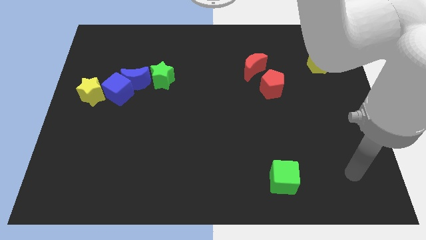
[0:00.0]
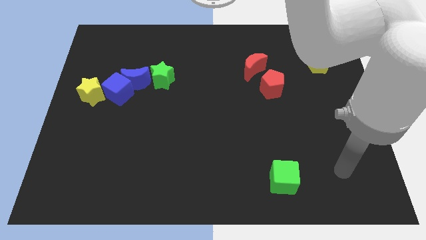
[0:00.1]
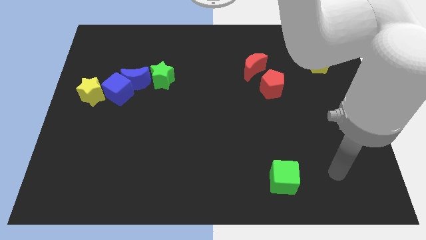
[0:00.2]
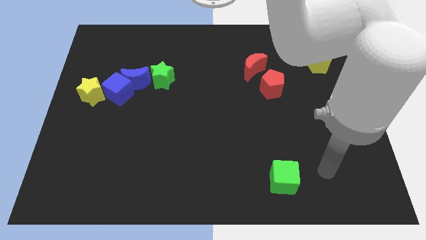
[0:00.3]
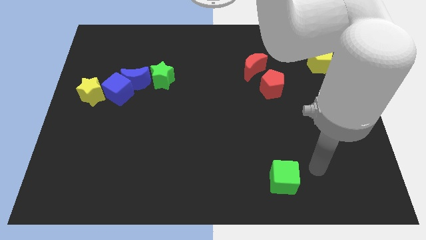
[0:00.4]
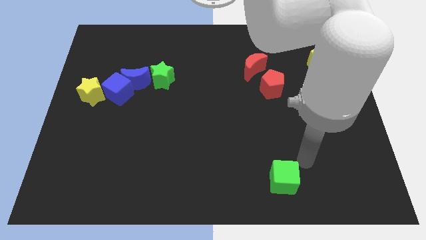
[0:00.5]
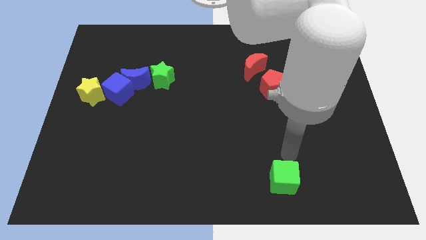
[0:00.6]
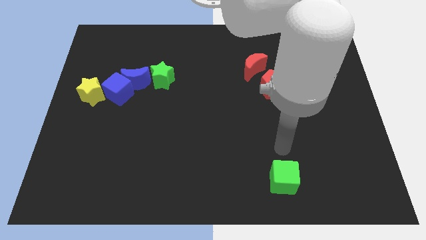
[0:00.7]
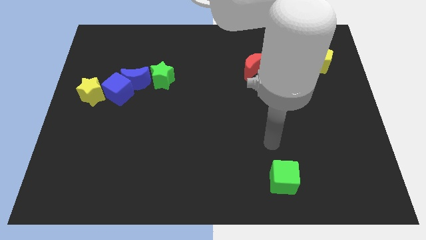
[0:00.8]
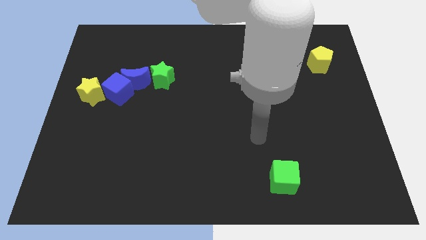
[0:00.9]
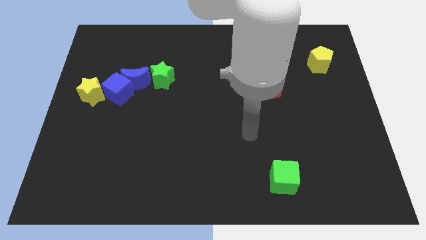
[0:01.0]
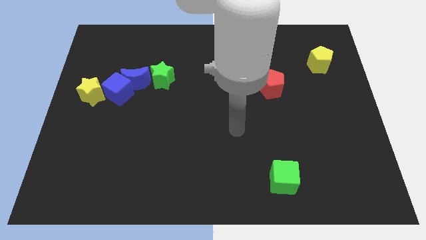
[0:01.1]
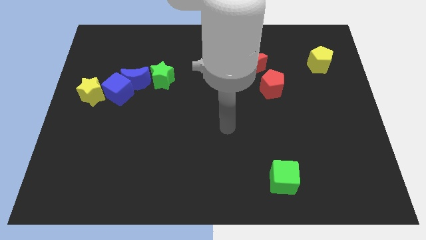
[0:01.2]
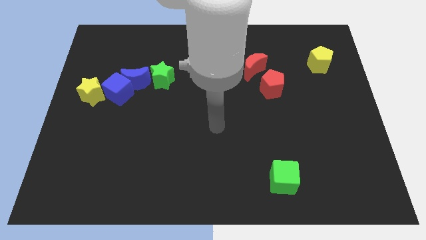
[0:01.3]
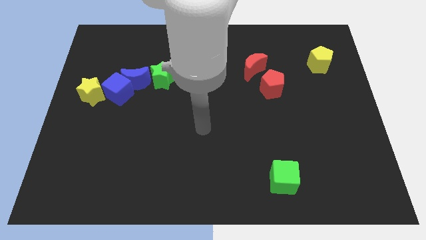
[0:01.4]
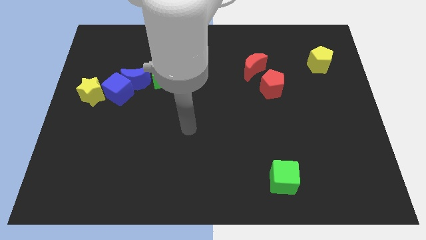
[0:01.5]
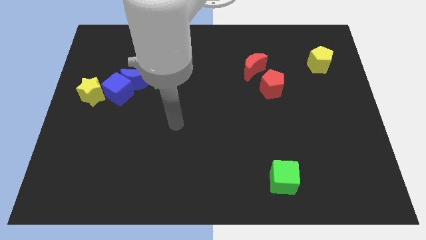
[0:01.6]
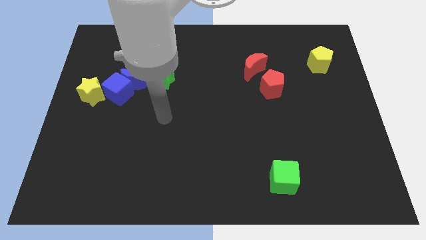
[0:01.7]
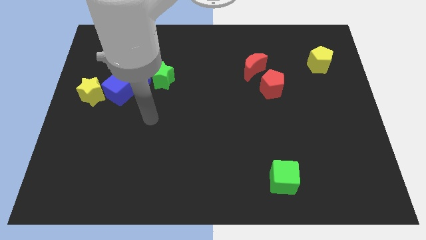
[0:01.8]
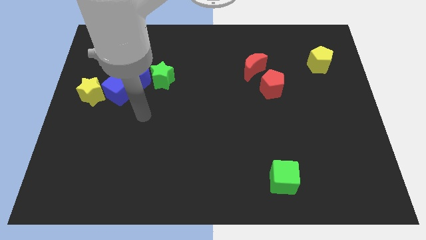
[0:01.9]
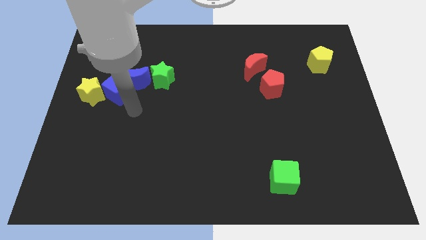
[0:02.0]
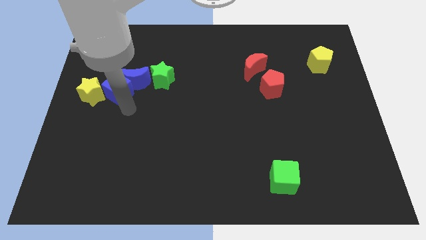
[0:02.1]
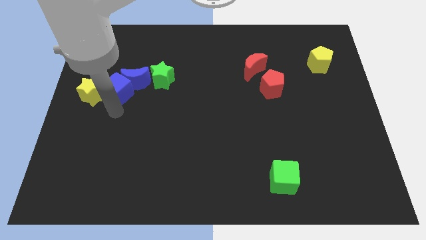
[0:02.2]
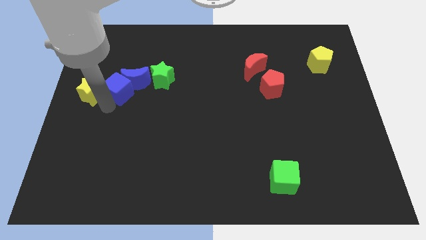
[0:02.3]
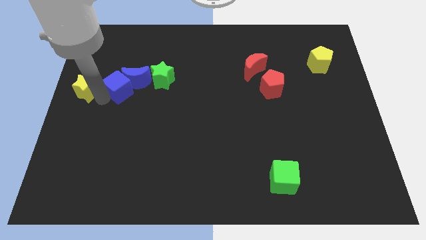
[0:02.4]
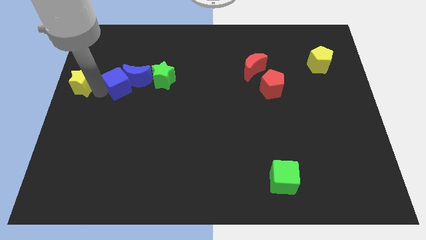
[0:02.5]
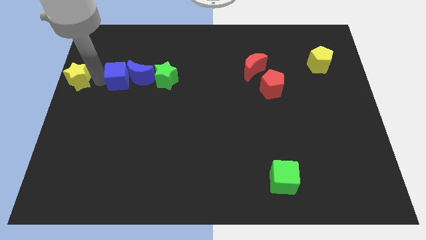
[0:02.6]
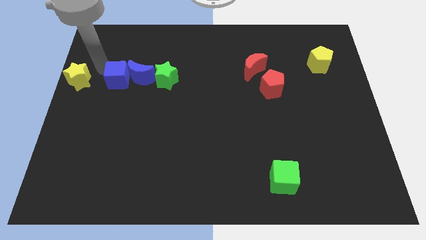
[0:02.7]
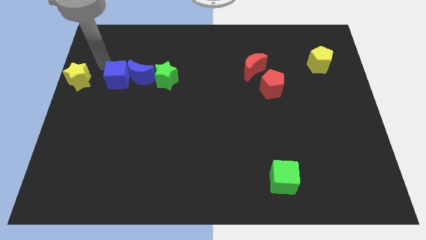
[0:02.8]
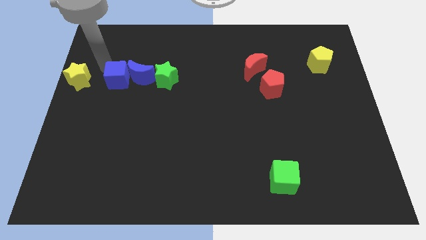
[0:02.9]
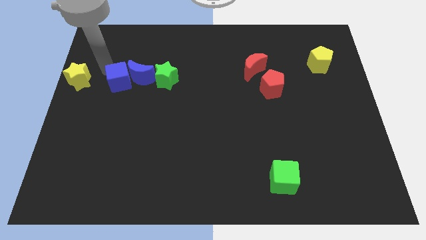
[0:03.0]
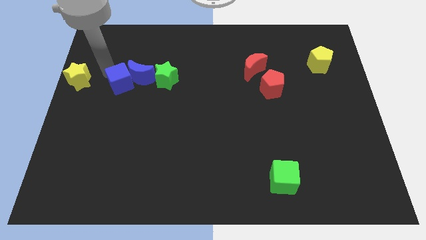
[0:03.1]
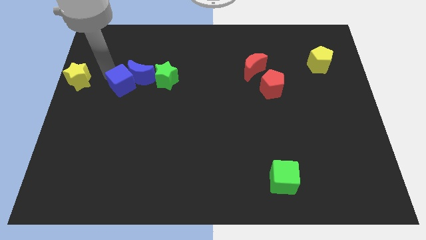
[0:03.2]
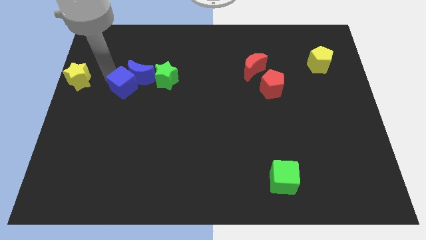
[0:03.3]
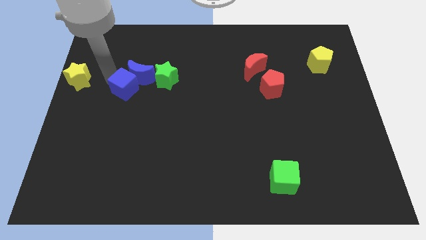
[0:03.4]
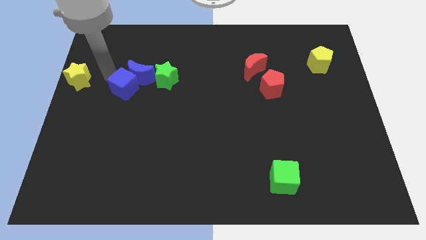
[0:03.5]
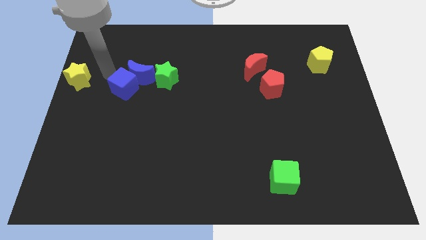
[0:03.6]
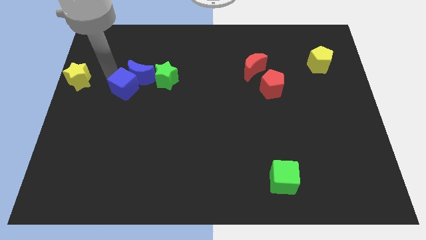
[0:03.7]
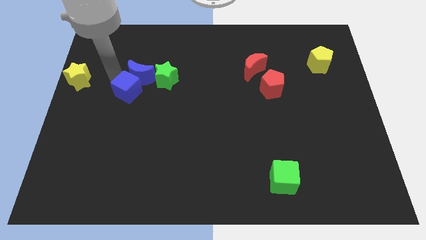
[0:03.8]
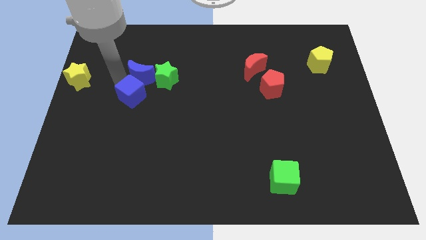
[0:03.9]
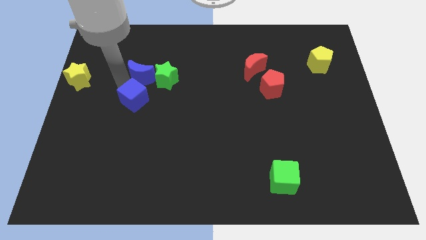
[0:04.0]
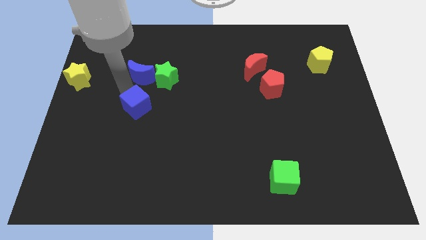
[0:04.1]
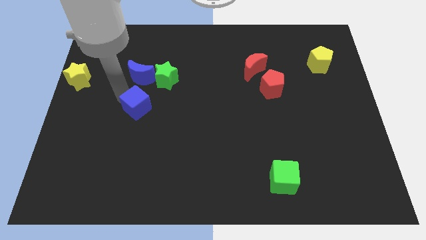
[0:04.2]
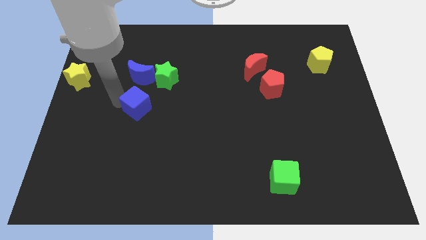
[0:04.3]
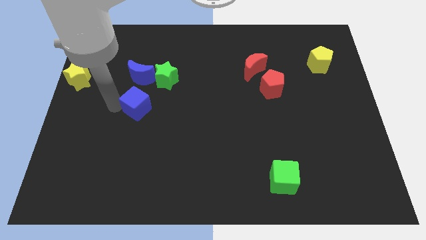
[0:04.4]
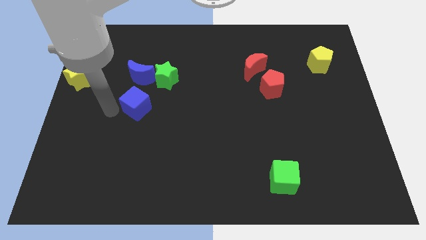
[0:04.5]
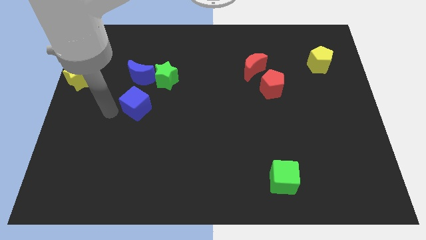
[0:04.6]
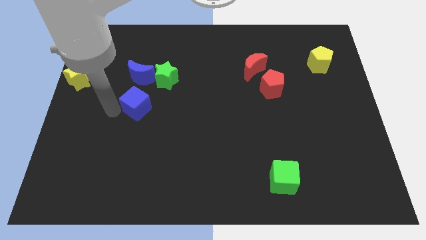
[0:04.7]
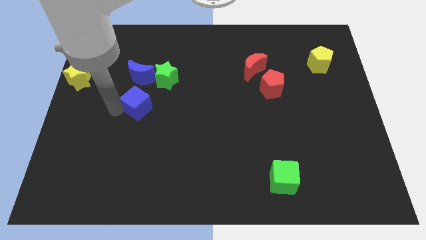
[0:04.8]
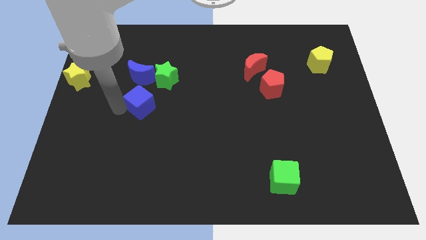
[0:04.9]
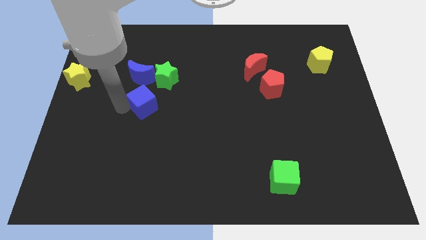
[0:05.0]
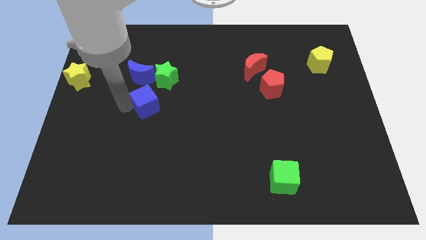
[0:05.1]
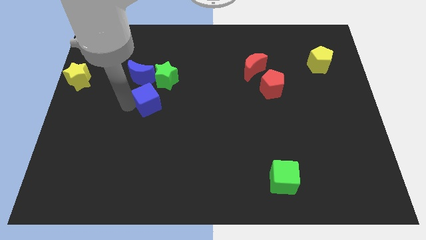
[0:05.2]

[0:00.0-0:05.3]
move the blue cube slightly right

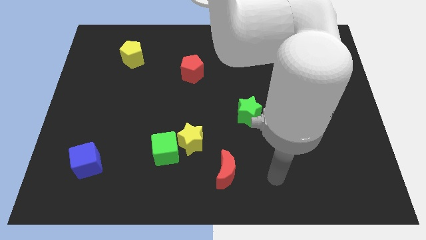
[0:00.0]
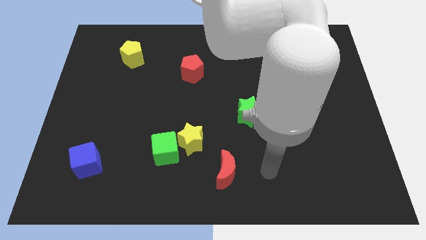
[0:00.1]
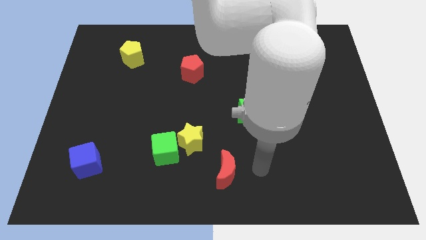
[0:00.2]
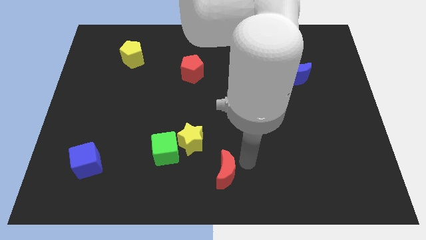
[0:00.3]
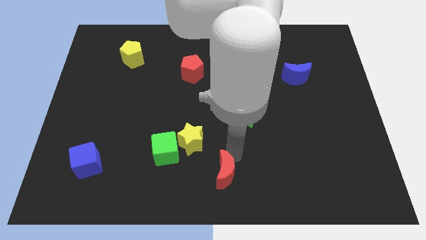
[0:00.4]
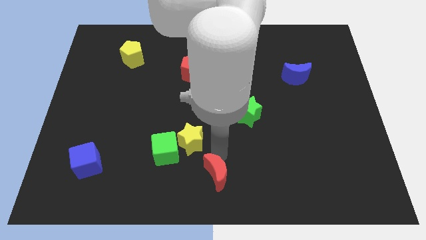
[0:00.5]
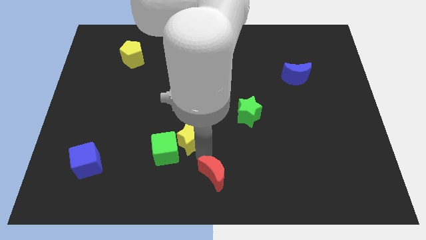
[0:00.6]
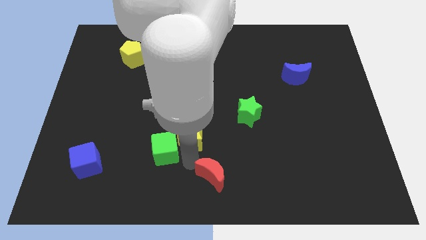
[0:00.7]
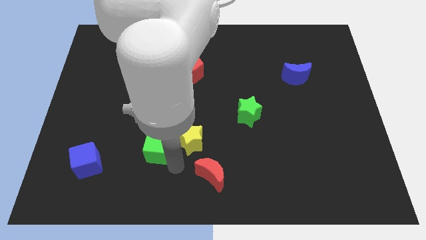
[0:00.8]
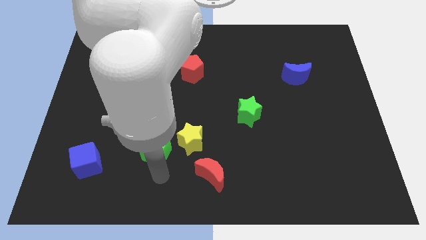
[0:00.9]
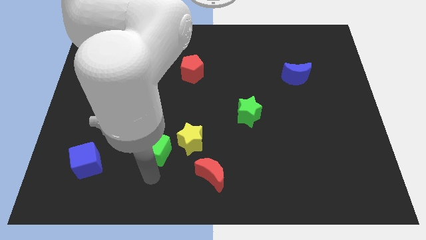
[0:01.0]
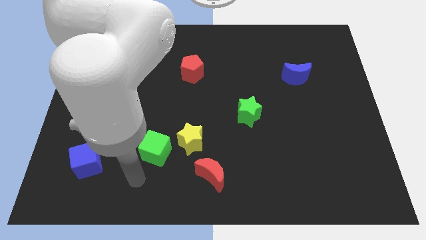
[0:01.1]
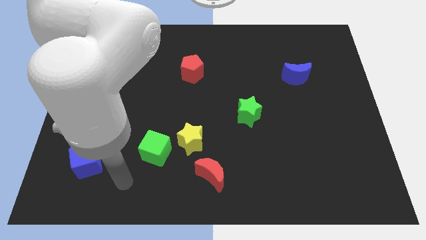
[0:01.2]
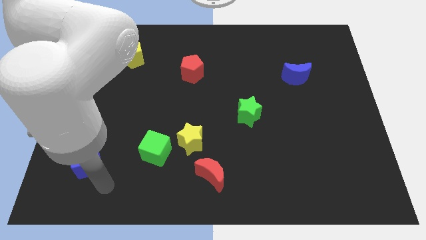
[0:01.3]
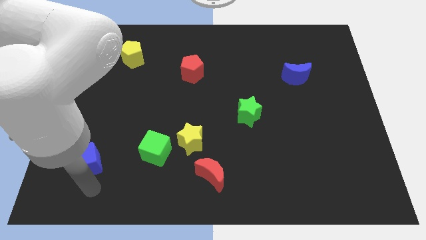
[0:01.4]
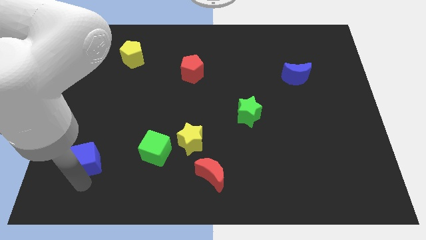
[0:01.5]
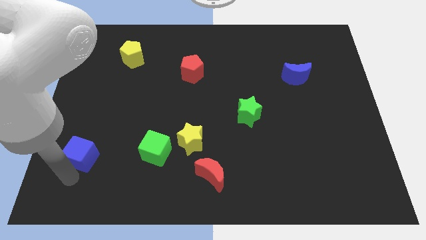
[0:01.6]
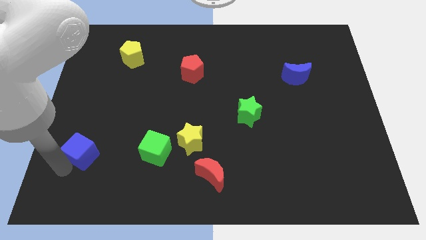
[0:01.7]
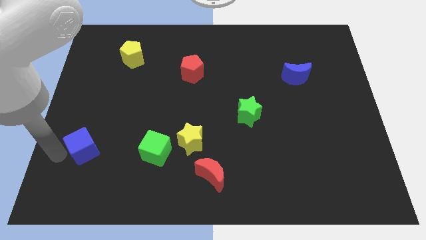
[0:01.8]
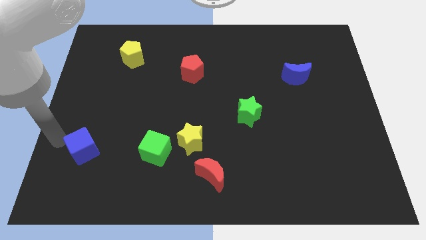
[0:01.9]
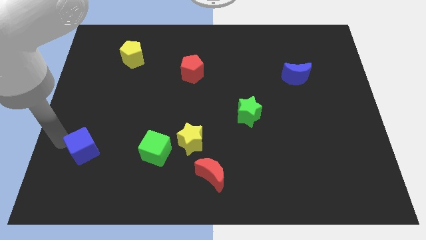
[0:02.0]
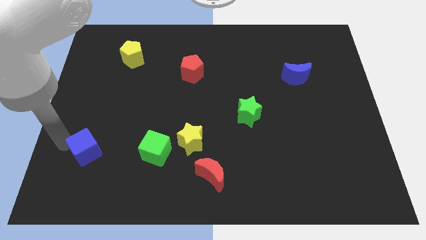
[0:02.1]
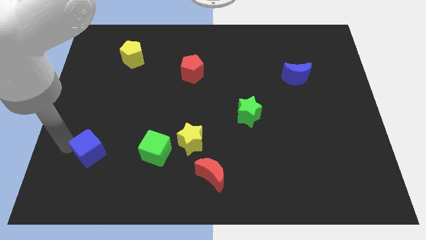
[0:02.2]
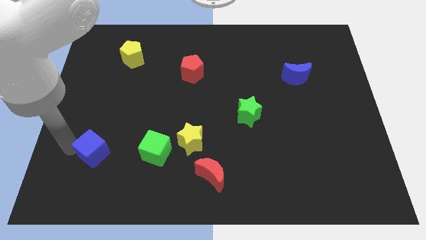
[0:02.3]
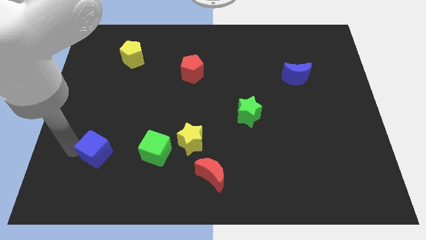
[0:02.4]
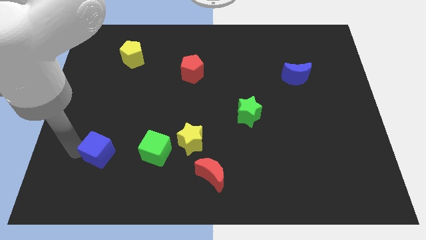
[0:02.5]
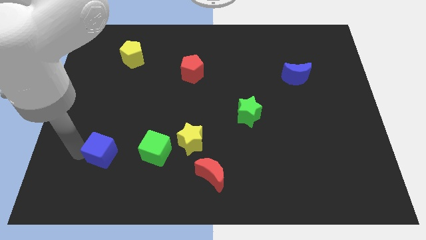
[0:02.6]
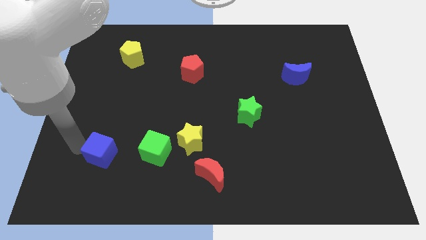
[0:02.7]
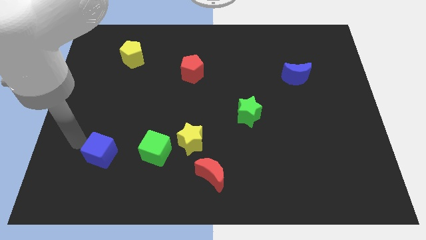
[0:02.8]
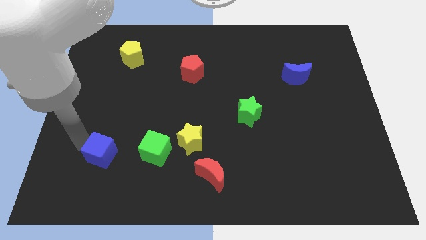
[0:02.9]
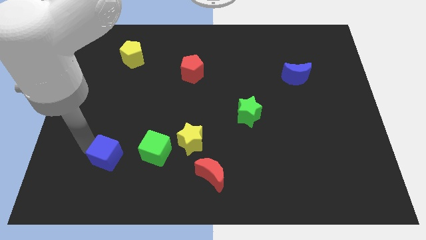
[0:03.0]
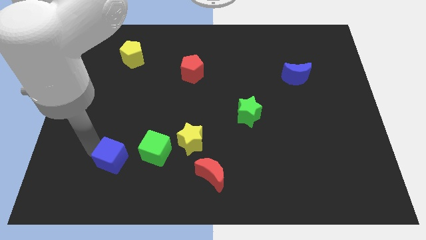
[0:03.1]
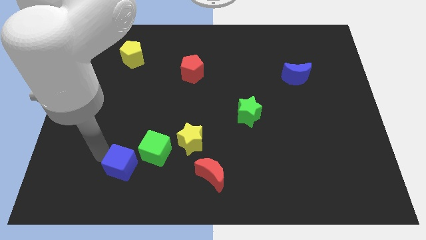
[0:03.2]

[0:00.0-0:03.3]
push the blue cube right a little bit
